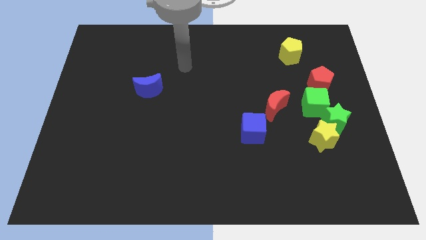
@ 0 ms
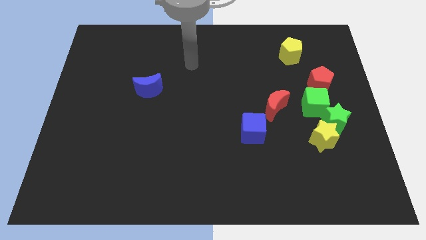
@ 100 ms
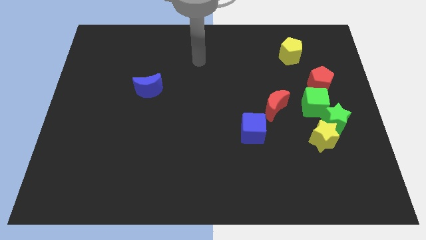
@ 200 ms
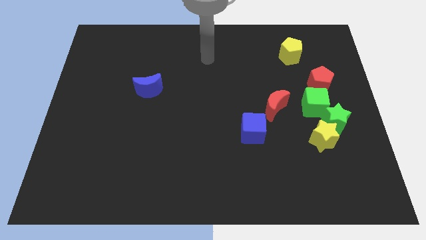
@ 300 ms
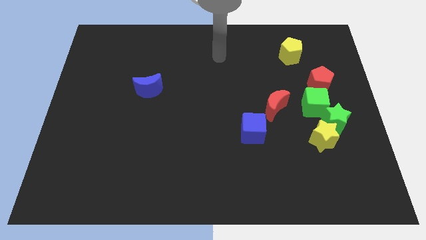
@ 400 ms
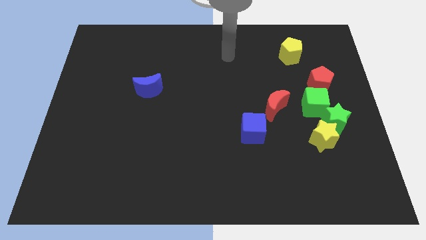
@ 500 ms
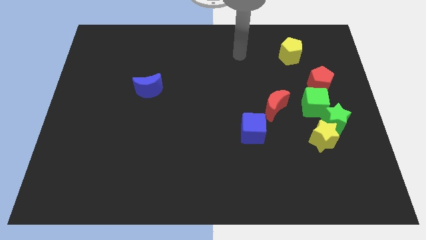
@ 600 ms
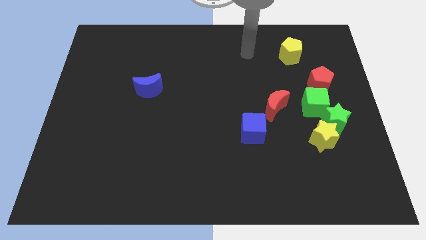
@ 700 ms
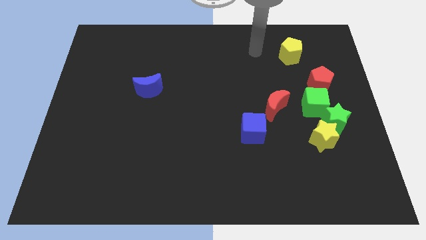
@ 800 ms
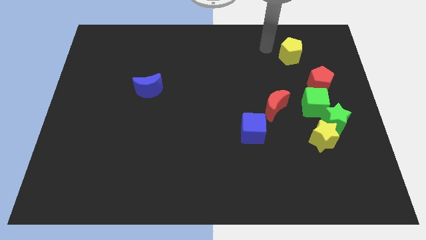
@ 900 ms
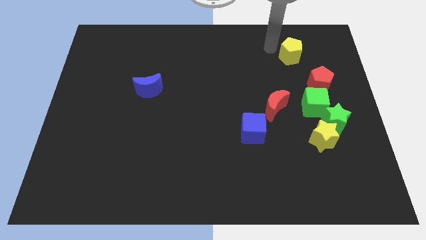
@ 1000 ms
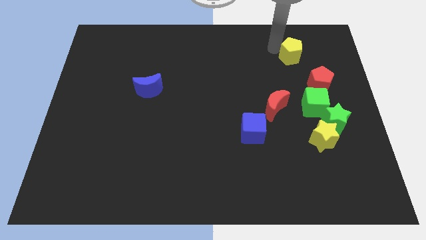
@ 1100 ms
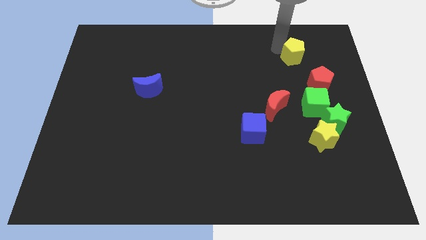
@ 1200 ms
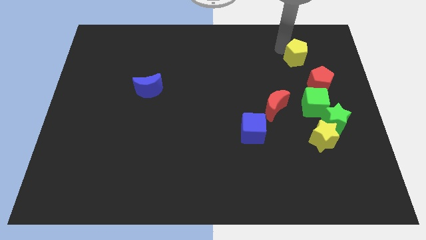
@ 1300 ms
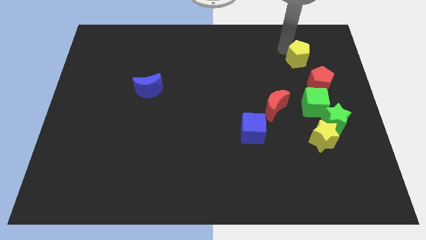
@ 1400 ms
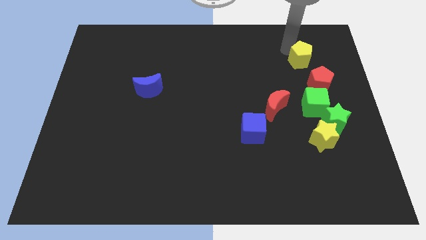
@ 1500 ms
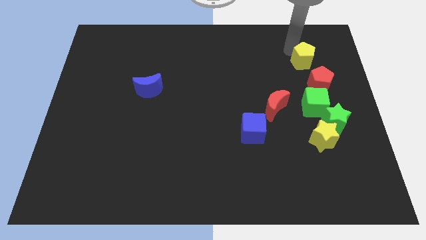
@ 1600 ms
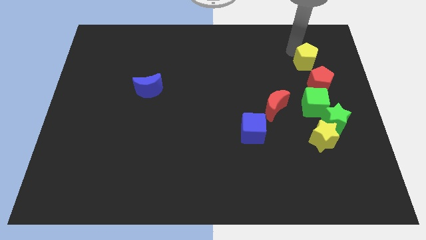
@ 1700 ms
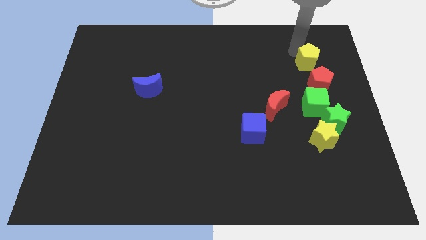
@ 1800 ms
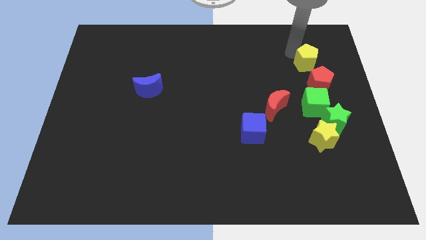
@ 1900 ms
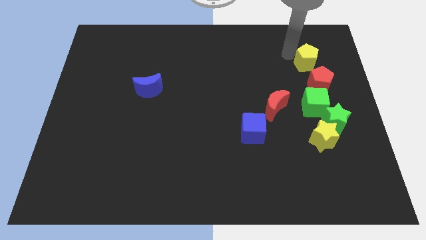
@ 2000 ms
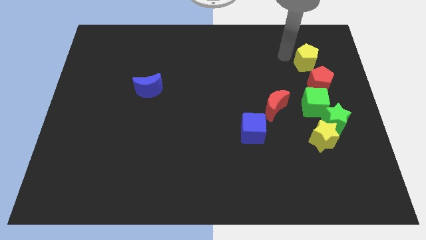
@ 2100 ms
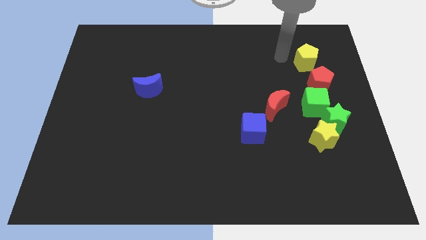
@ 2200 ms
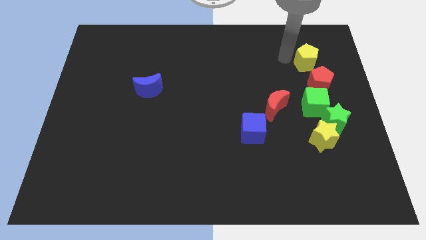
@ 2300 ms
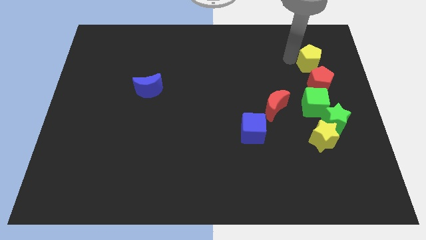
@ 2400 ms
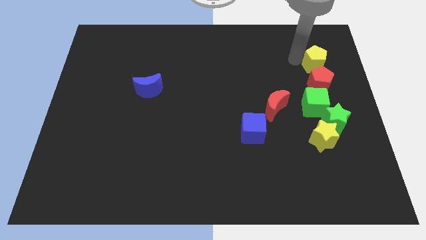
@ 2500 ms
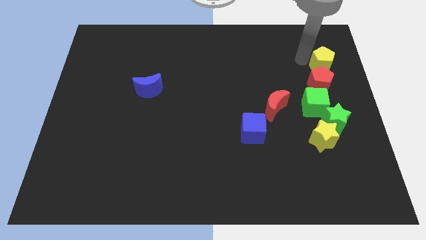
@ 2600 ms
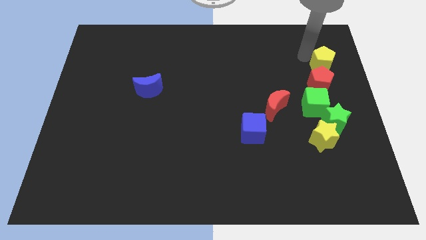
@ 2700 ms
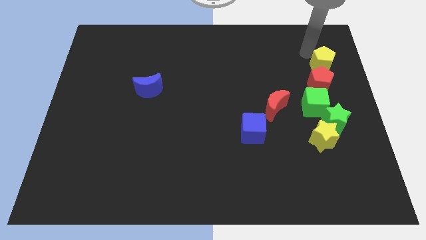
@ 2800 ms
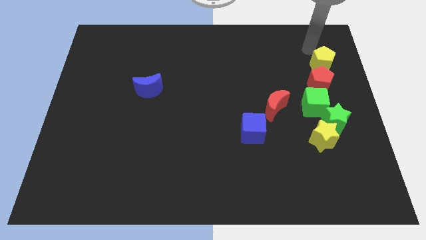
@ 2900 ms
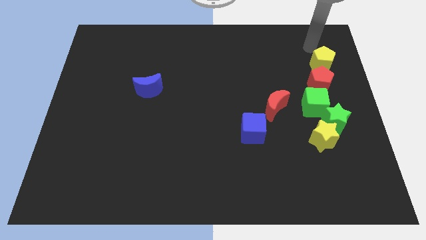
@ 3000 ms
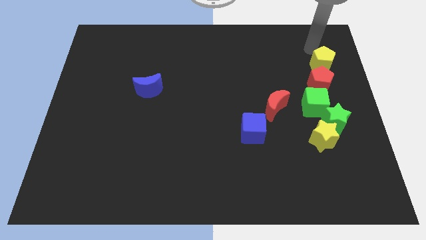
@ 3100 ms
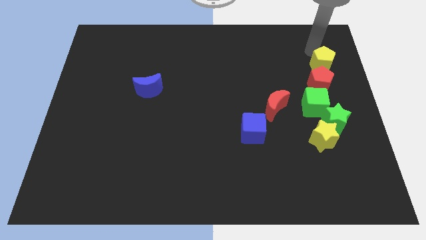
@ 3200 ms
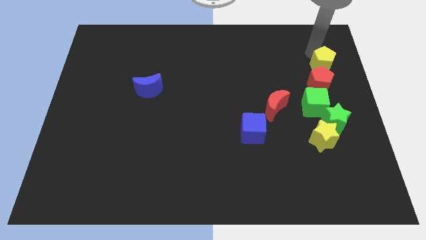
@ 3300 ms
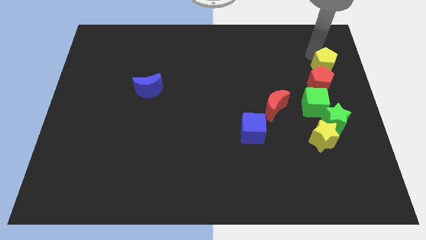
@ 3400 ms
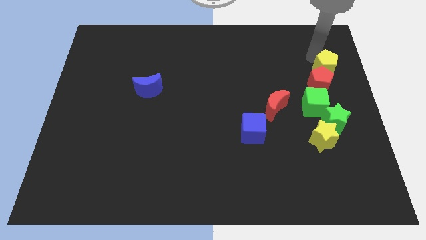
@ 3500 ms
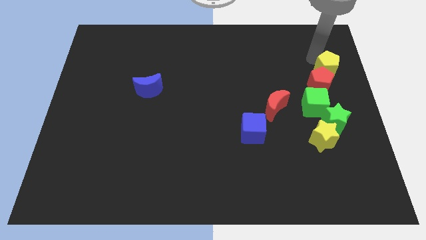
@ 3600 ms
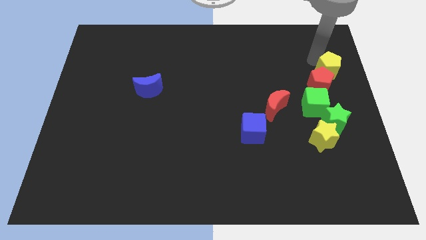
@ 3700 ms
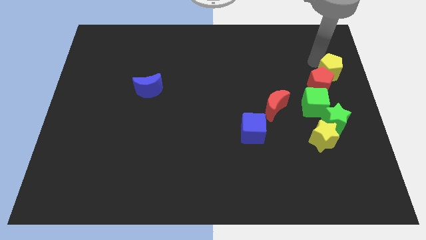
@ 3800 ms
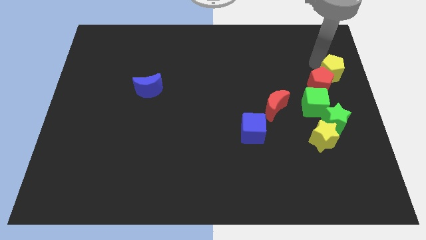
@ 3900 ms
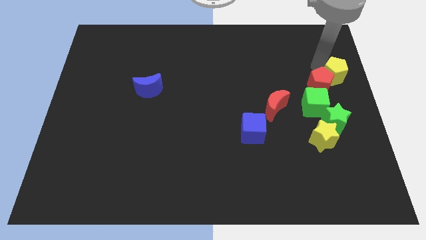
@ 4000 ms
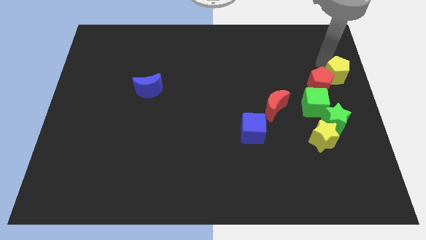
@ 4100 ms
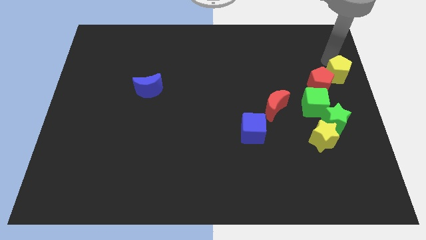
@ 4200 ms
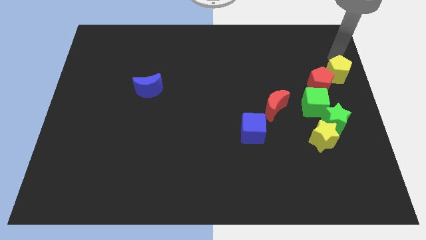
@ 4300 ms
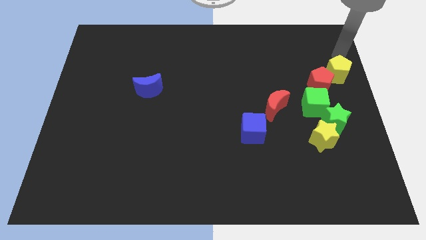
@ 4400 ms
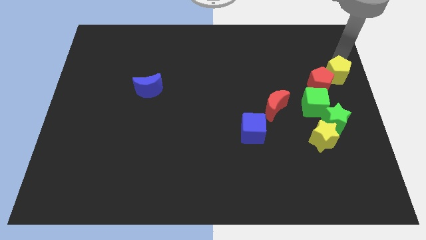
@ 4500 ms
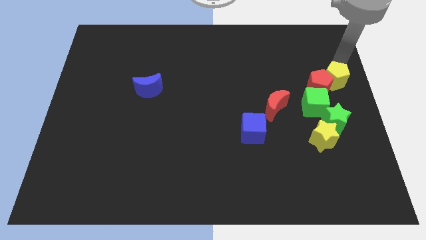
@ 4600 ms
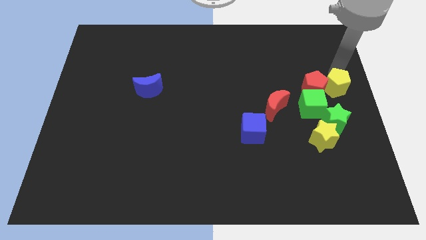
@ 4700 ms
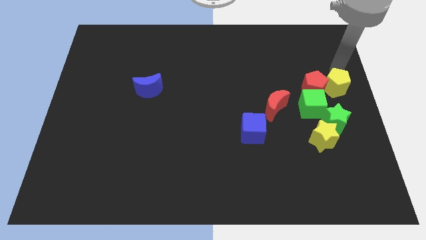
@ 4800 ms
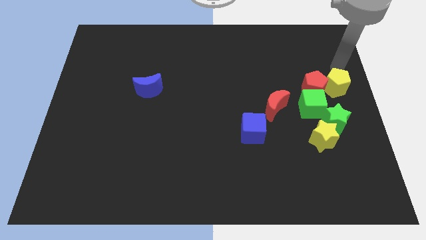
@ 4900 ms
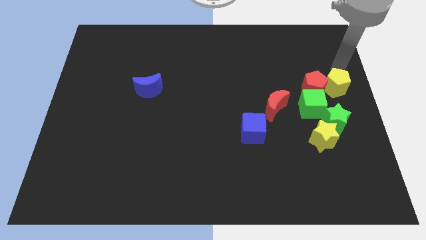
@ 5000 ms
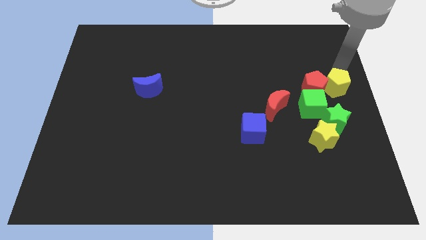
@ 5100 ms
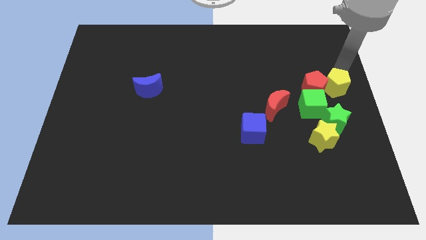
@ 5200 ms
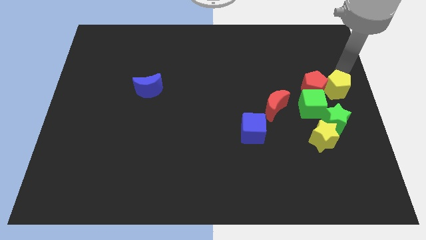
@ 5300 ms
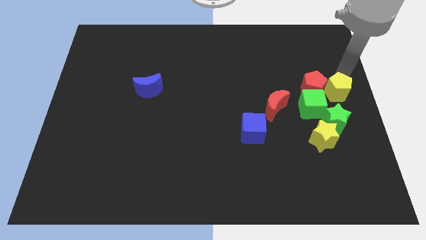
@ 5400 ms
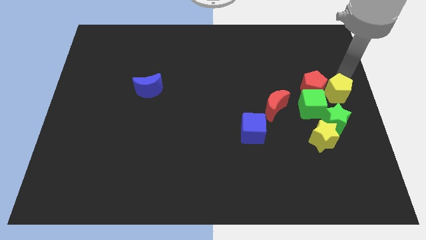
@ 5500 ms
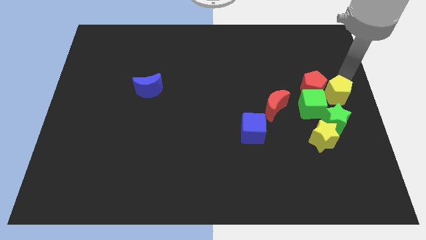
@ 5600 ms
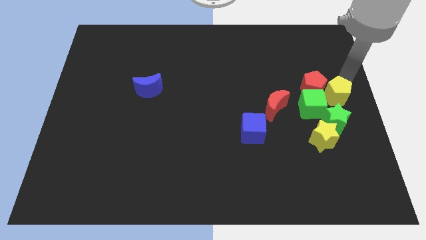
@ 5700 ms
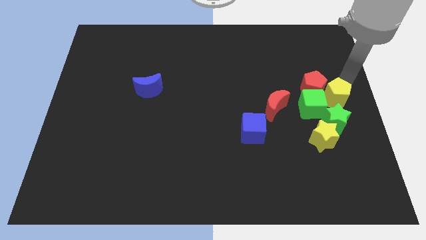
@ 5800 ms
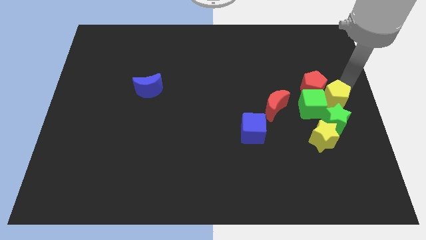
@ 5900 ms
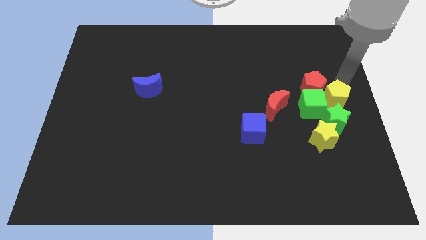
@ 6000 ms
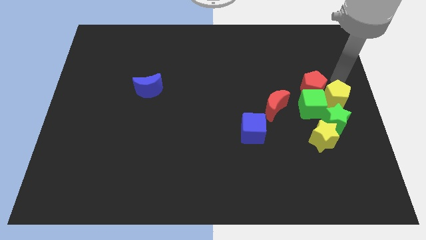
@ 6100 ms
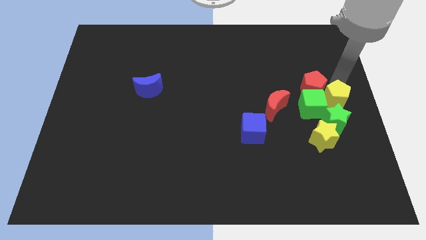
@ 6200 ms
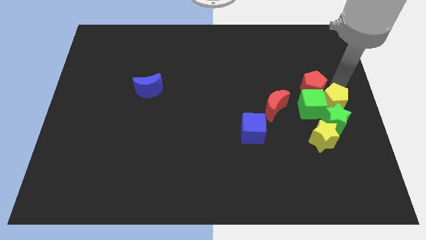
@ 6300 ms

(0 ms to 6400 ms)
slide the yellow pentagon to the green star
